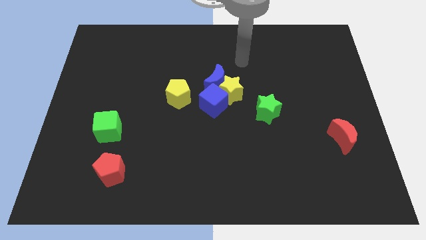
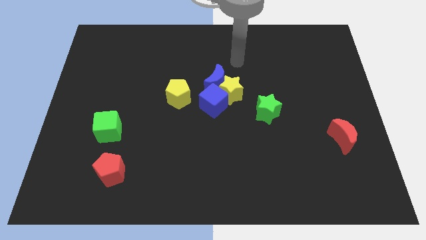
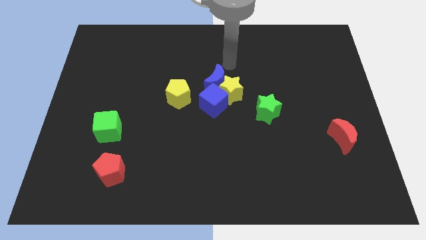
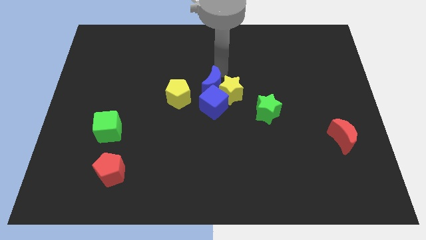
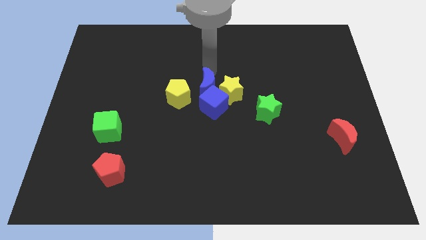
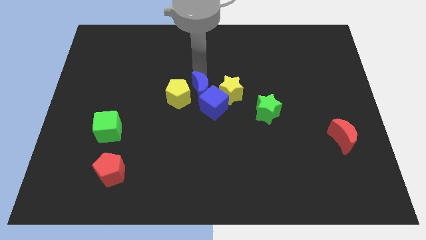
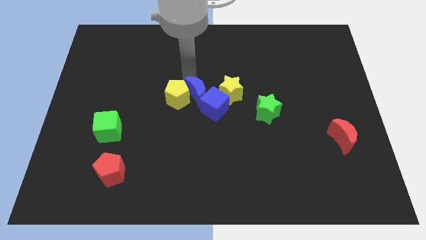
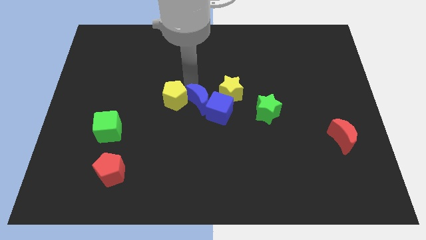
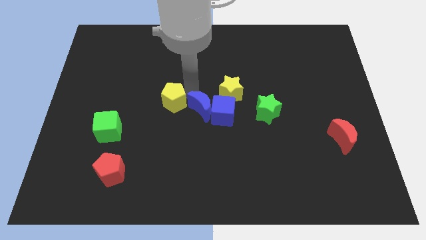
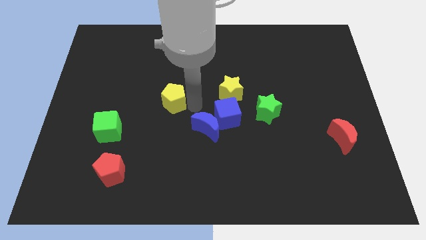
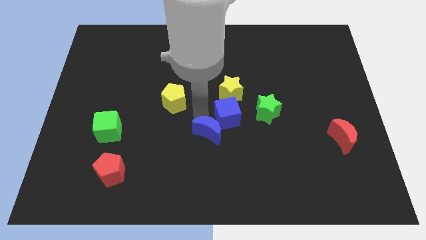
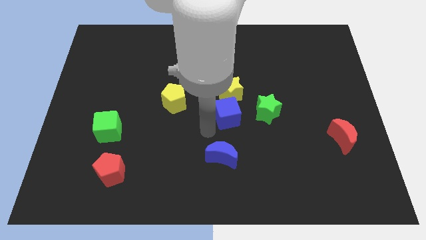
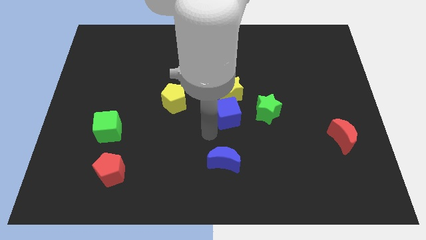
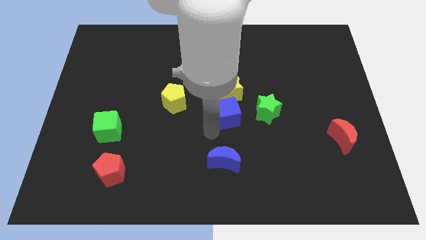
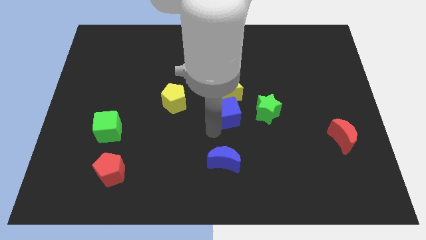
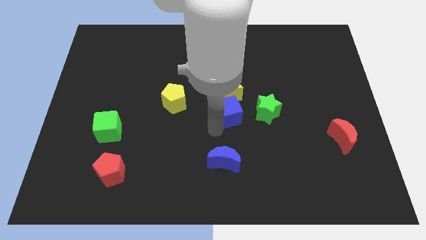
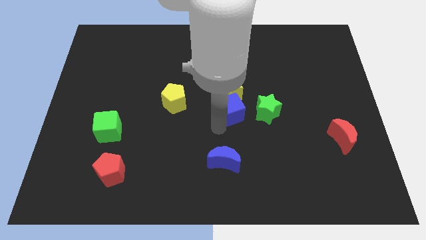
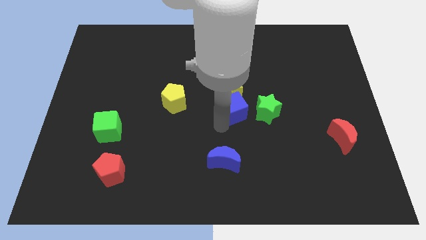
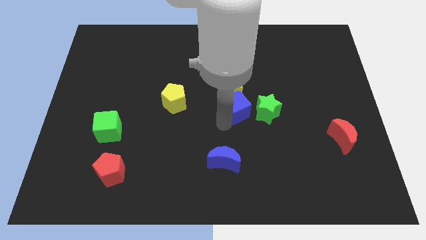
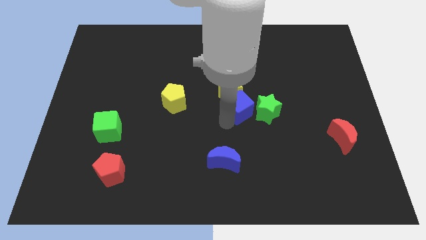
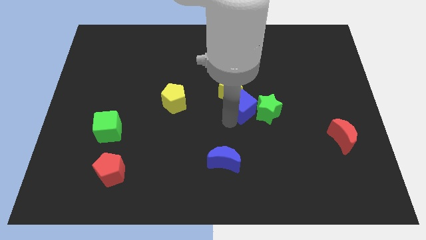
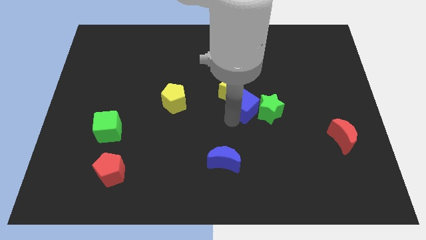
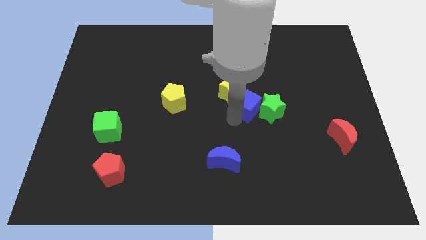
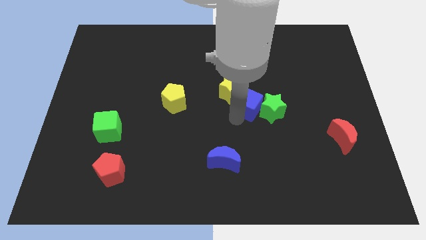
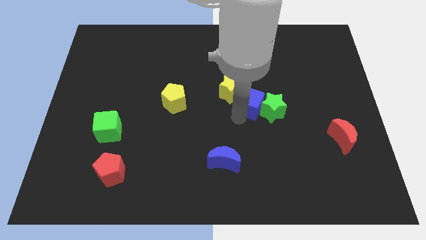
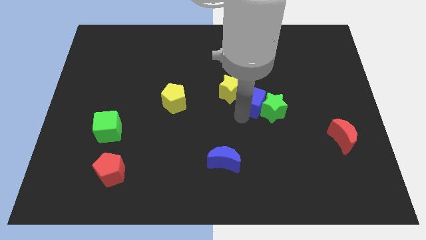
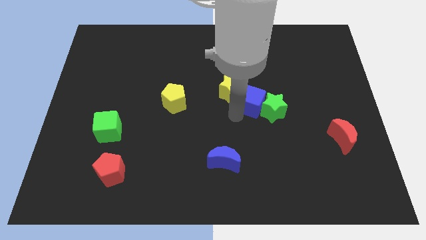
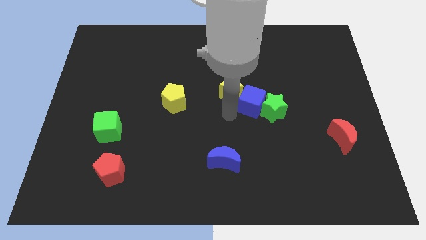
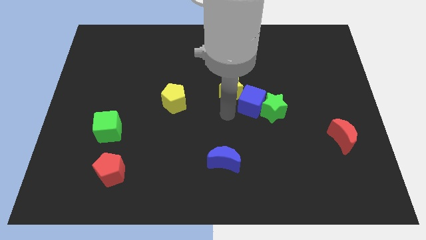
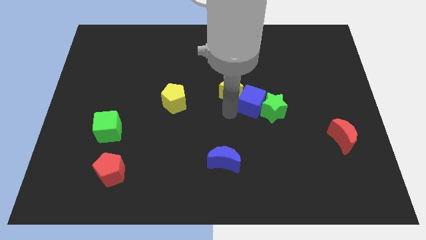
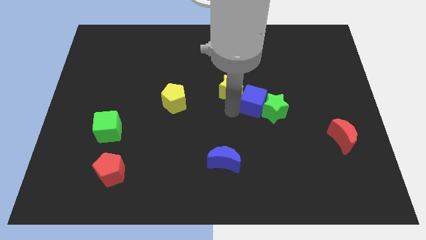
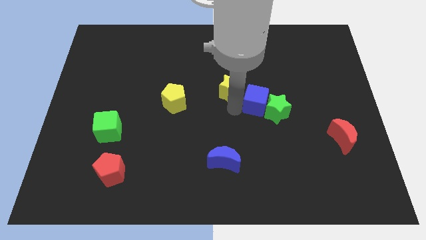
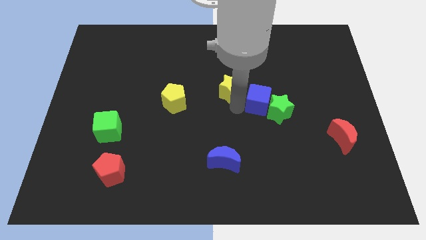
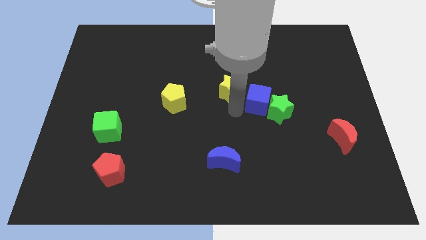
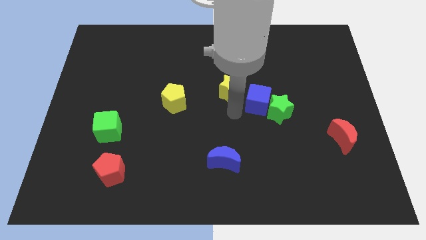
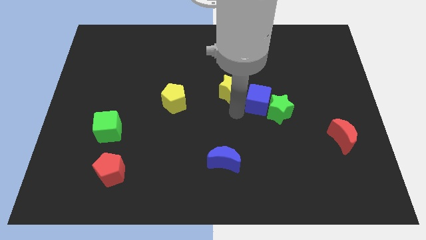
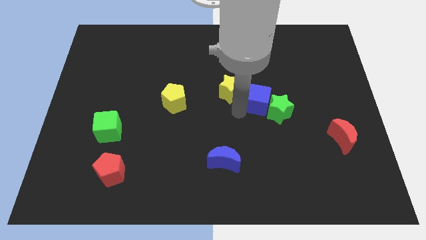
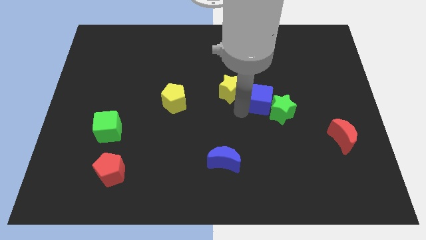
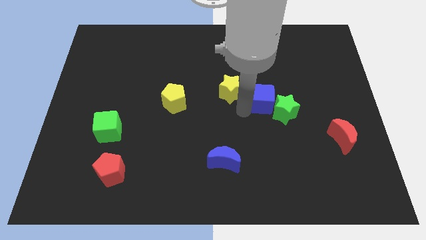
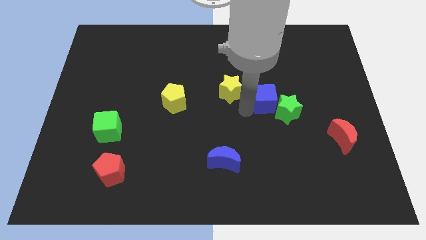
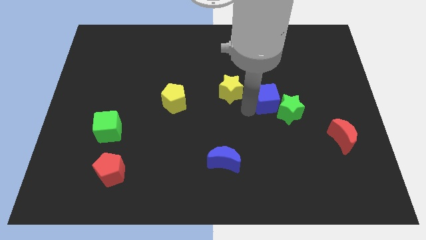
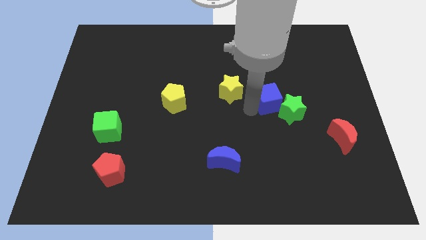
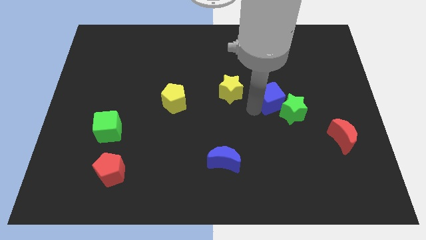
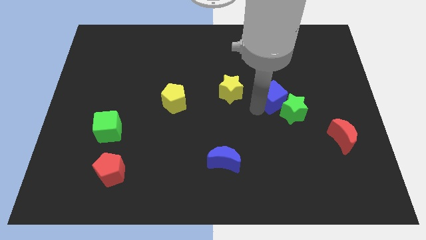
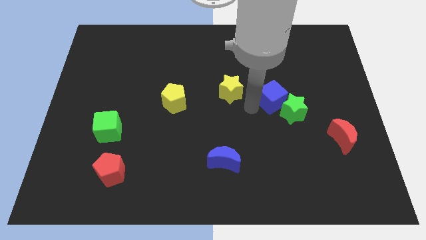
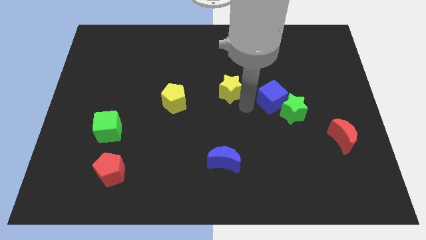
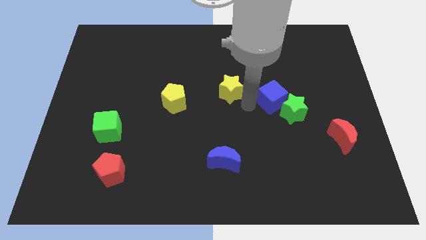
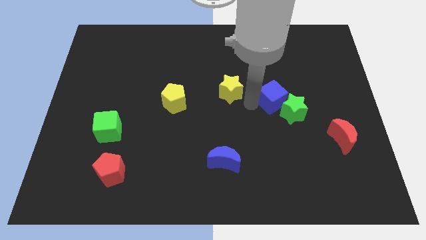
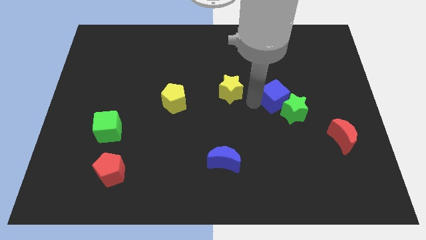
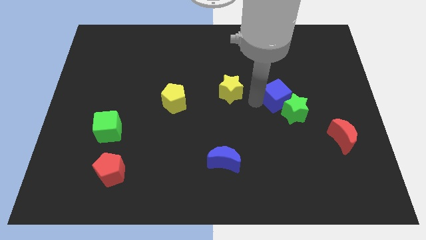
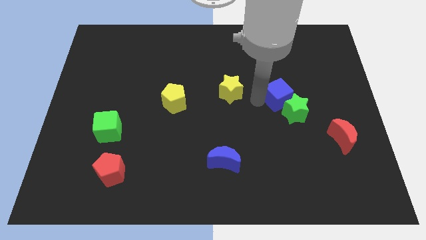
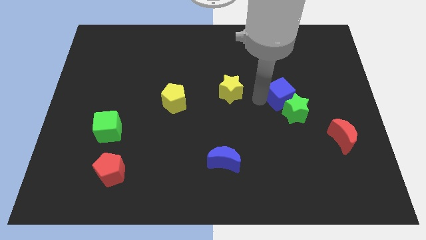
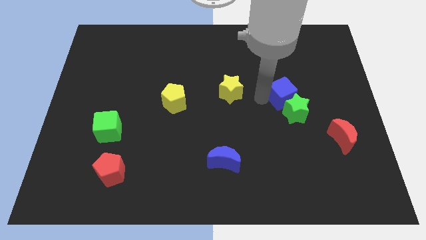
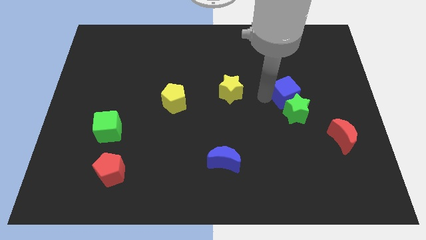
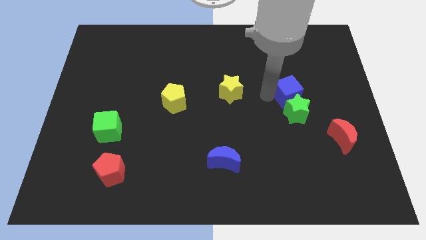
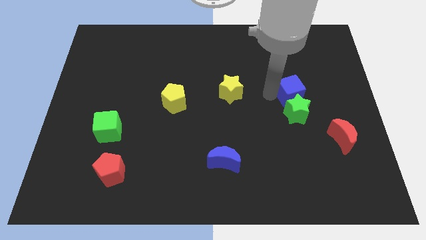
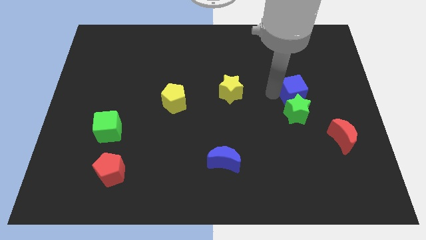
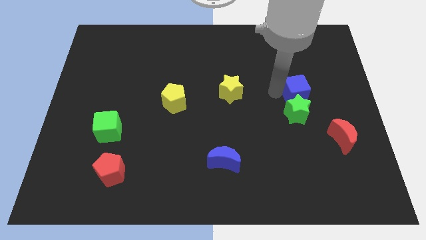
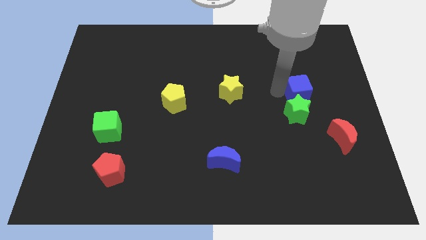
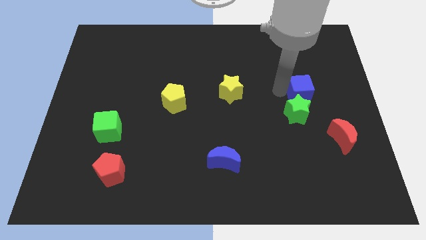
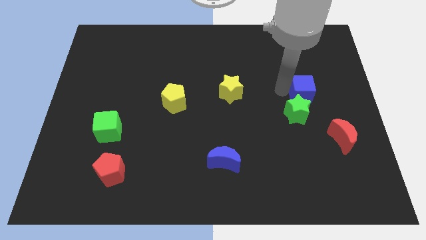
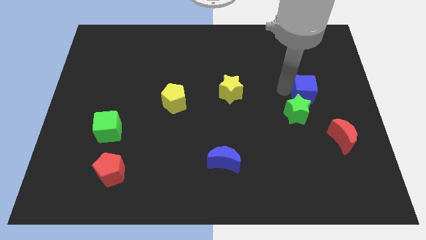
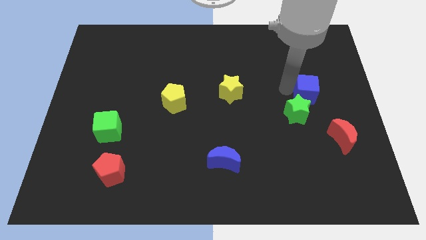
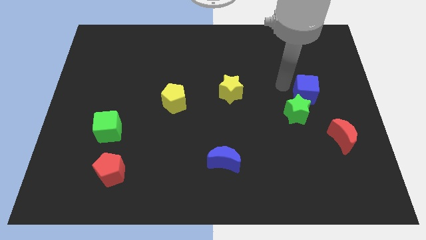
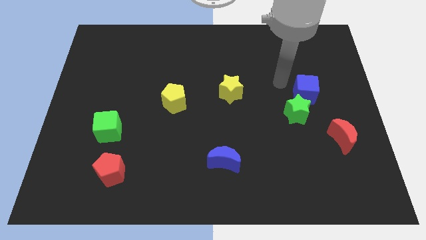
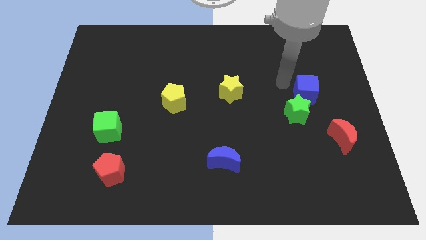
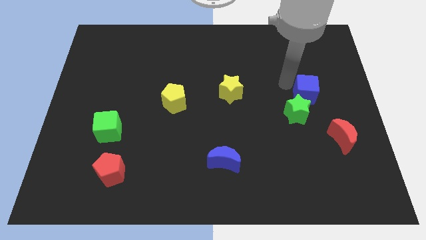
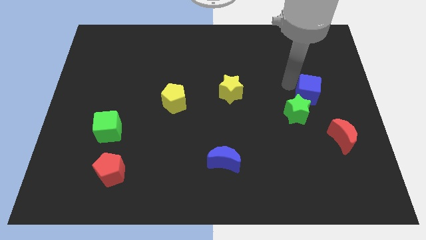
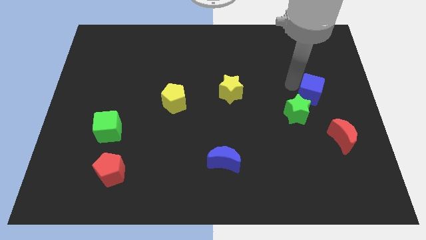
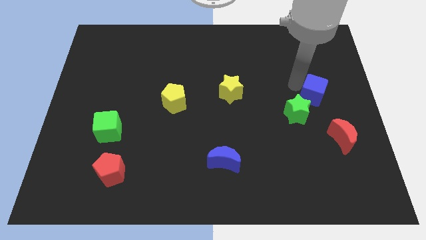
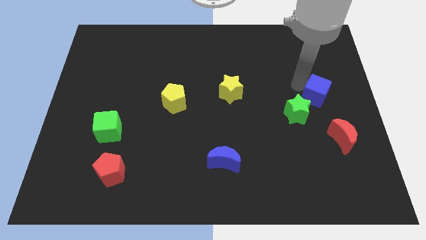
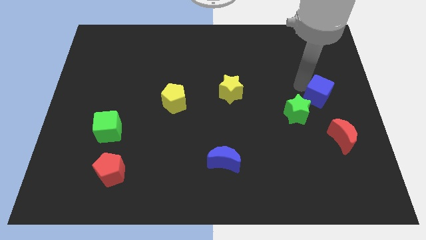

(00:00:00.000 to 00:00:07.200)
slide the blue cube to the right side of the board
